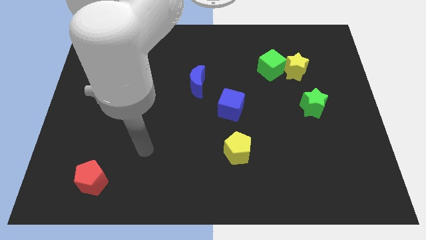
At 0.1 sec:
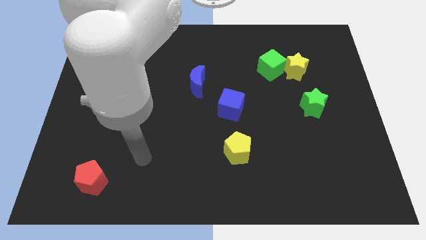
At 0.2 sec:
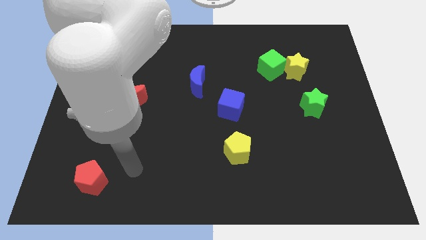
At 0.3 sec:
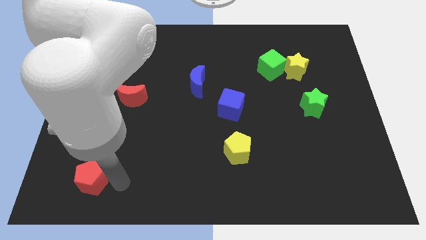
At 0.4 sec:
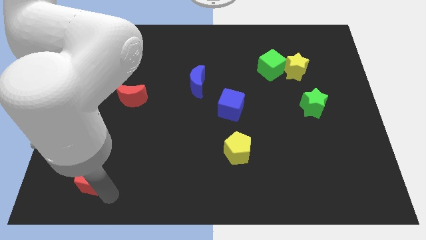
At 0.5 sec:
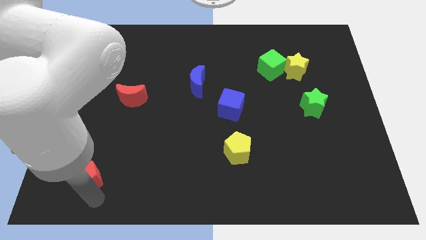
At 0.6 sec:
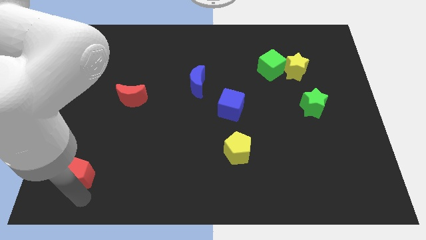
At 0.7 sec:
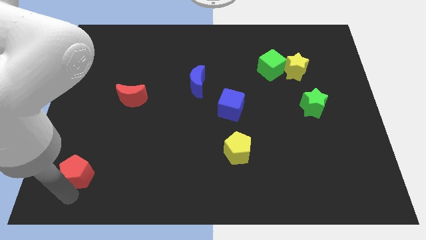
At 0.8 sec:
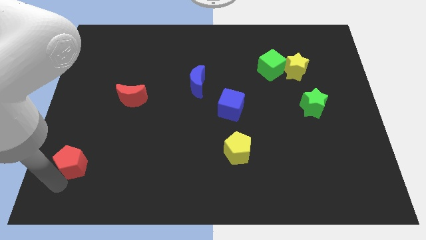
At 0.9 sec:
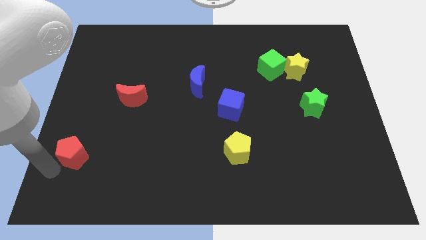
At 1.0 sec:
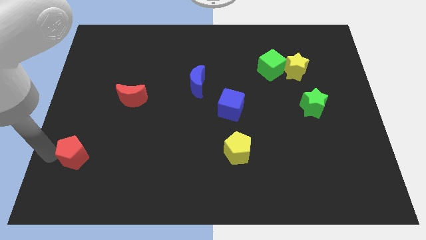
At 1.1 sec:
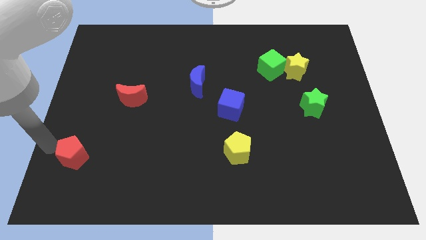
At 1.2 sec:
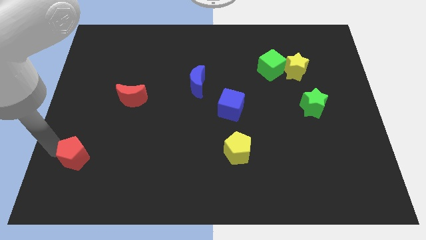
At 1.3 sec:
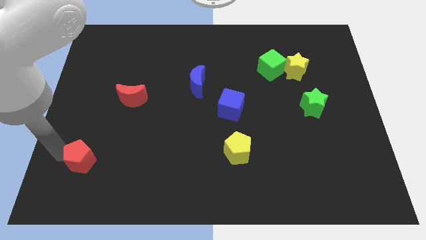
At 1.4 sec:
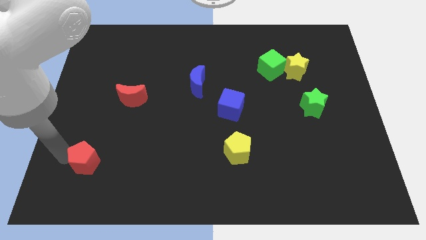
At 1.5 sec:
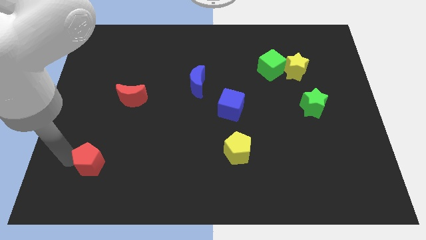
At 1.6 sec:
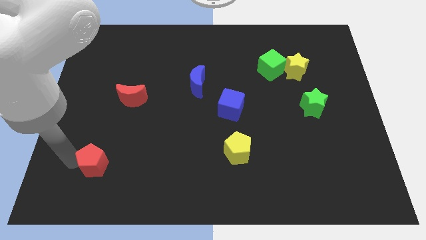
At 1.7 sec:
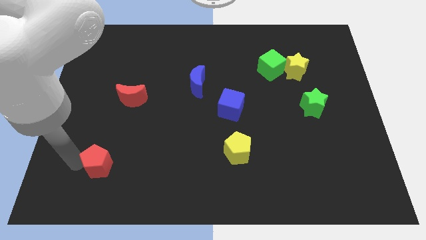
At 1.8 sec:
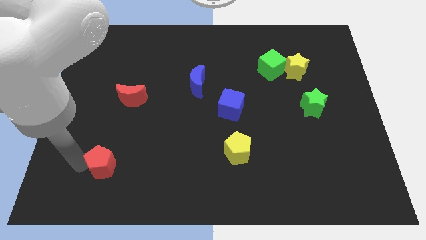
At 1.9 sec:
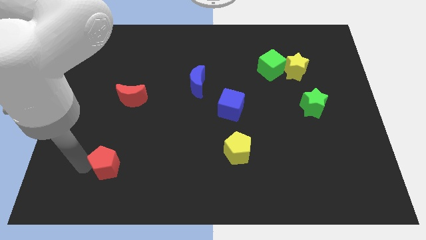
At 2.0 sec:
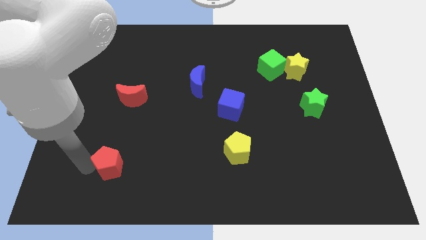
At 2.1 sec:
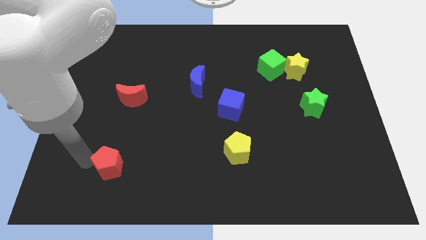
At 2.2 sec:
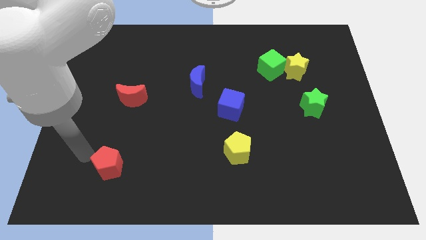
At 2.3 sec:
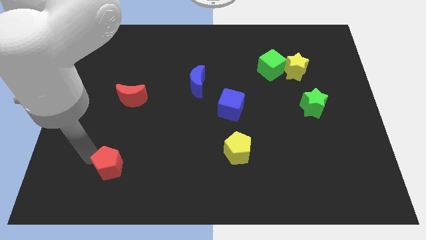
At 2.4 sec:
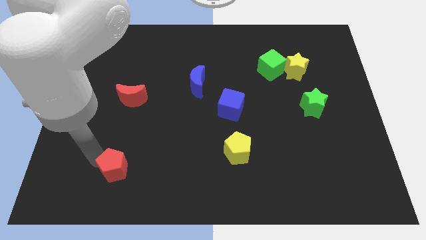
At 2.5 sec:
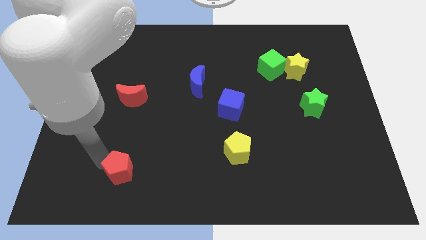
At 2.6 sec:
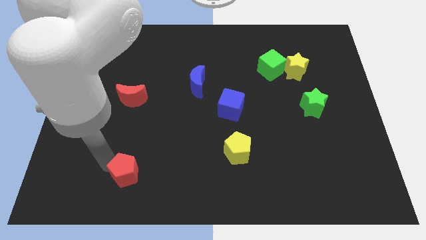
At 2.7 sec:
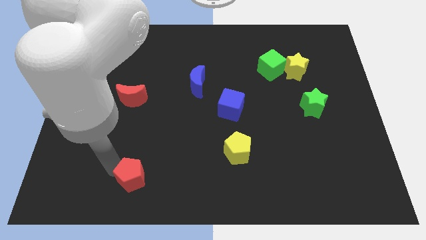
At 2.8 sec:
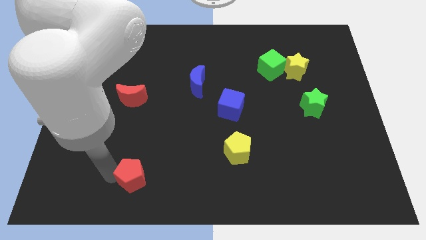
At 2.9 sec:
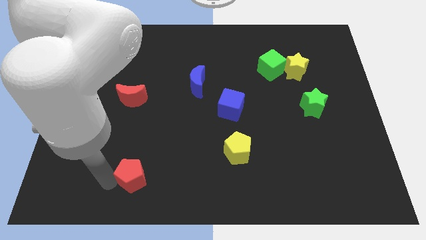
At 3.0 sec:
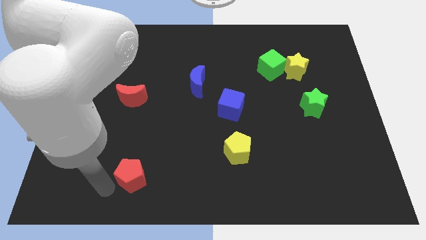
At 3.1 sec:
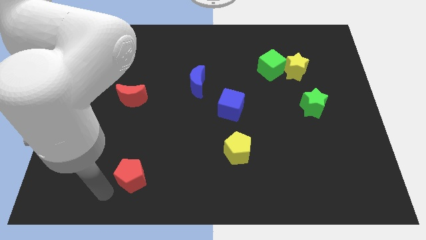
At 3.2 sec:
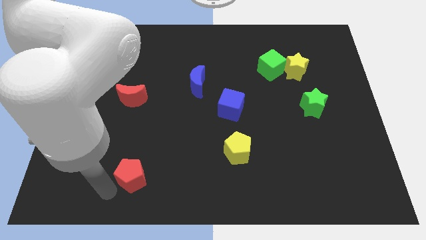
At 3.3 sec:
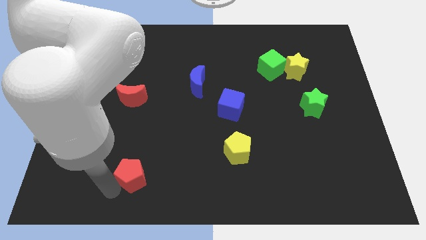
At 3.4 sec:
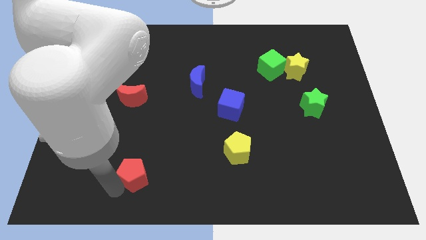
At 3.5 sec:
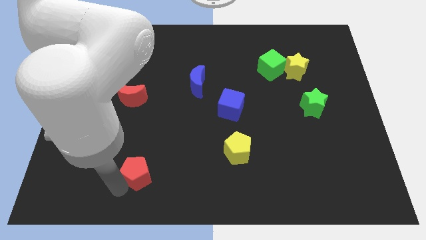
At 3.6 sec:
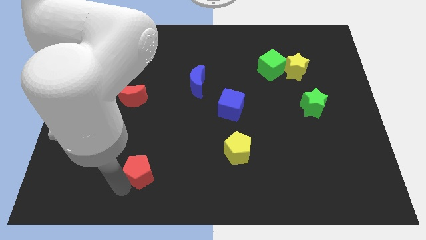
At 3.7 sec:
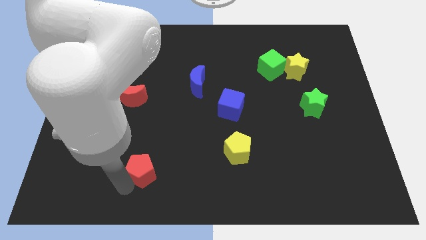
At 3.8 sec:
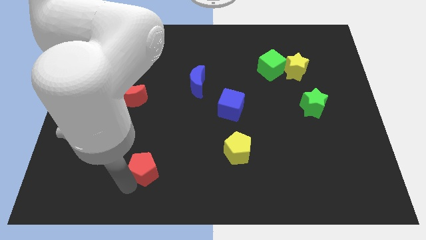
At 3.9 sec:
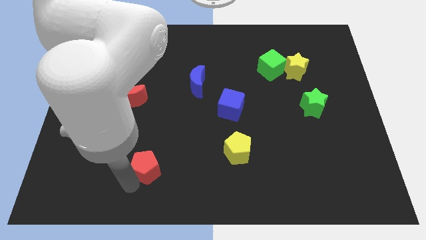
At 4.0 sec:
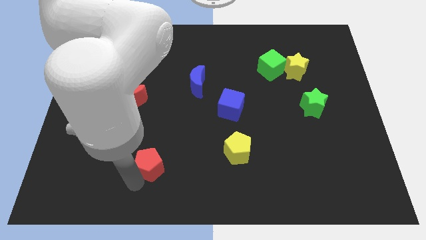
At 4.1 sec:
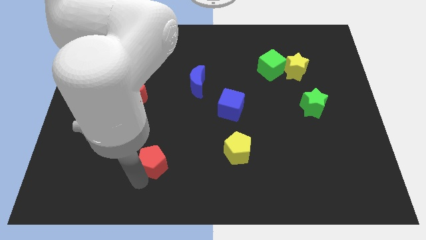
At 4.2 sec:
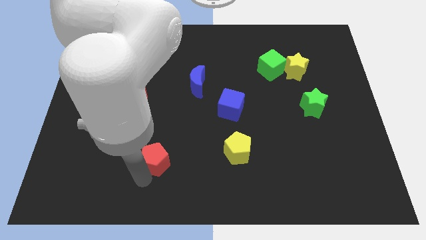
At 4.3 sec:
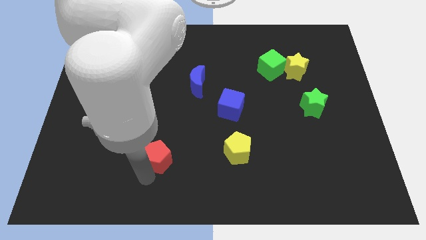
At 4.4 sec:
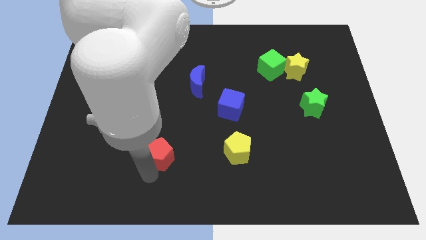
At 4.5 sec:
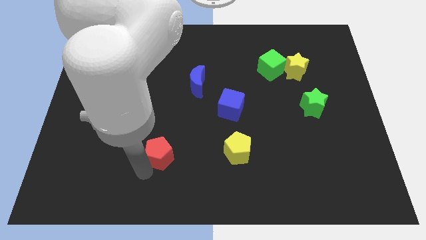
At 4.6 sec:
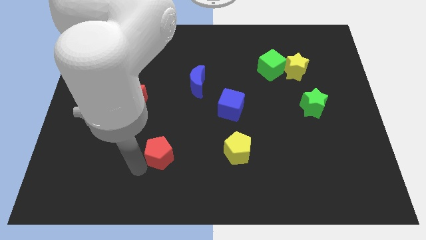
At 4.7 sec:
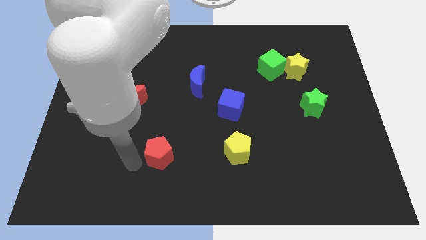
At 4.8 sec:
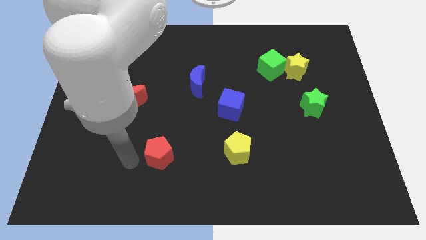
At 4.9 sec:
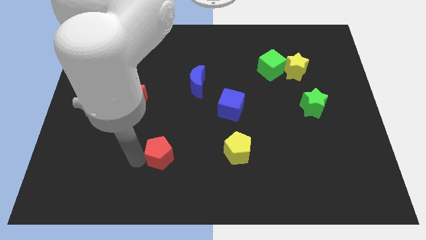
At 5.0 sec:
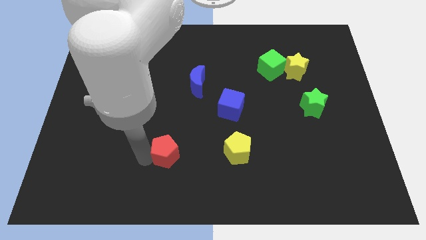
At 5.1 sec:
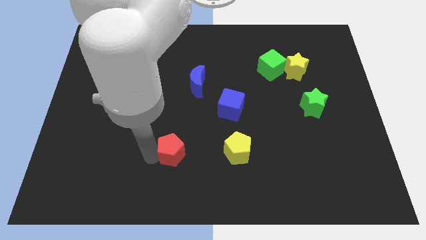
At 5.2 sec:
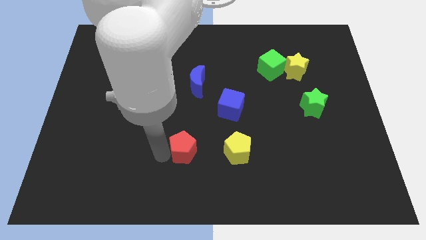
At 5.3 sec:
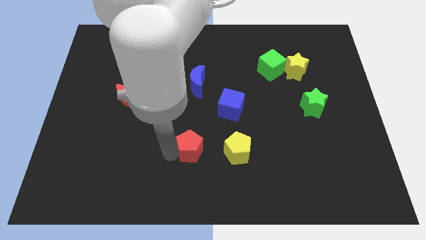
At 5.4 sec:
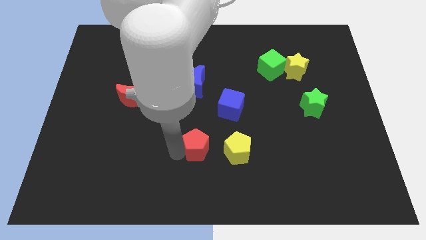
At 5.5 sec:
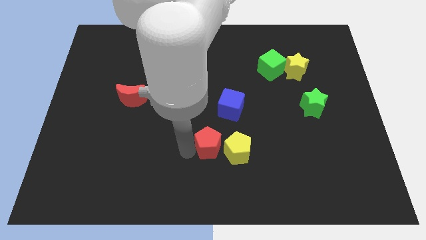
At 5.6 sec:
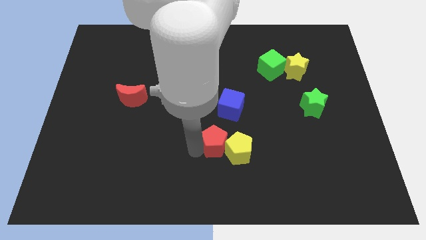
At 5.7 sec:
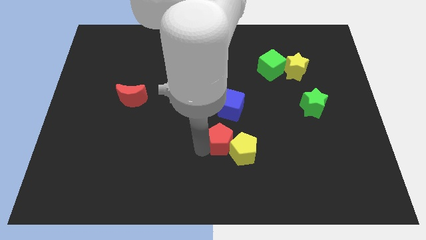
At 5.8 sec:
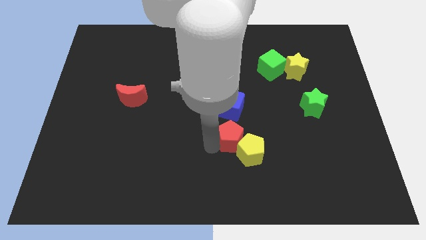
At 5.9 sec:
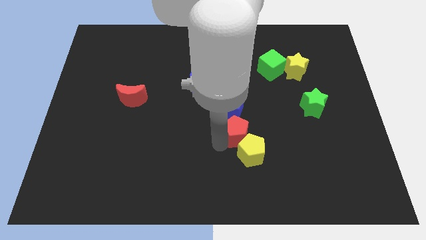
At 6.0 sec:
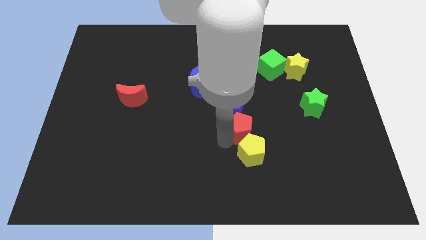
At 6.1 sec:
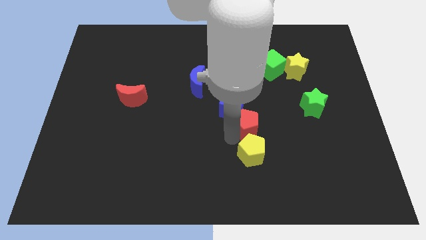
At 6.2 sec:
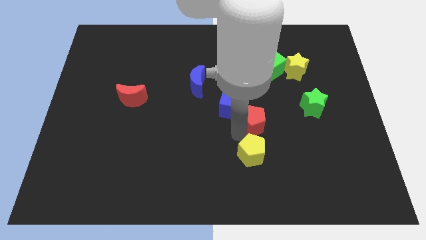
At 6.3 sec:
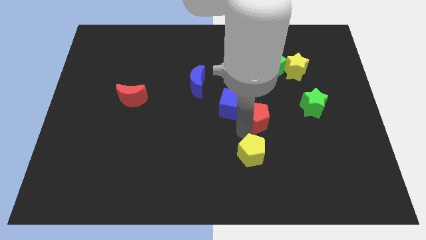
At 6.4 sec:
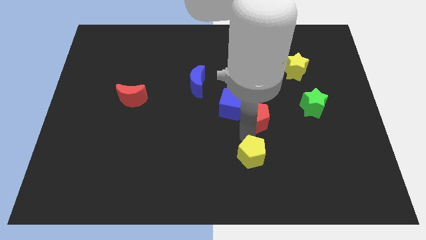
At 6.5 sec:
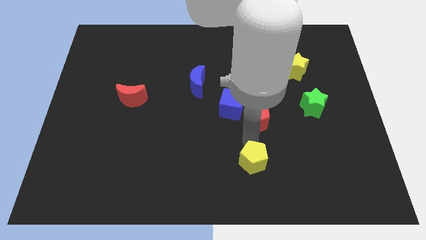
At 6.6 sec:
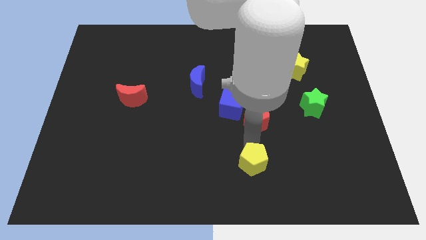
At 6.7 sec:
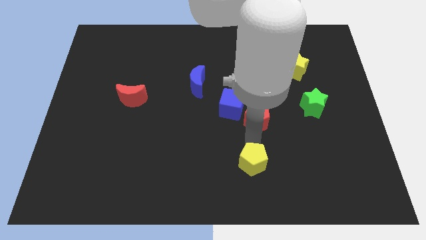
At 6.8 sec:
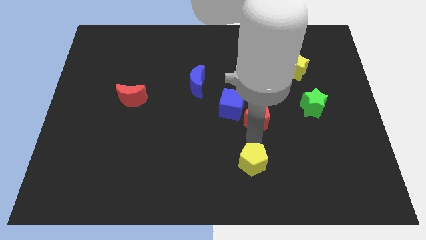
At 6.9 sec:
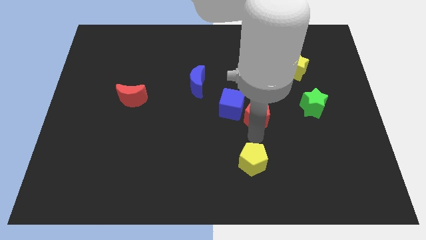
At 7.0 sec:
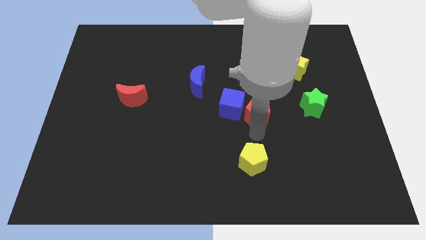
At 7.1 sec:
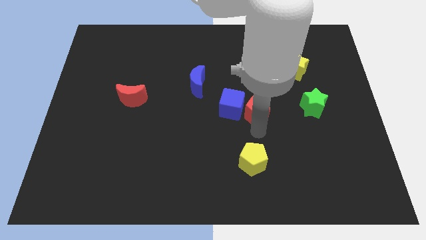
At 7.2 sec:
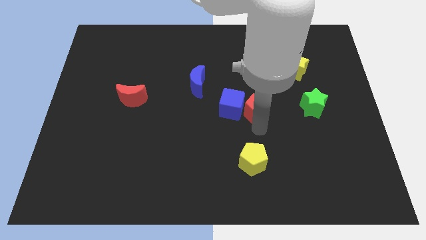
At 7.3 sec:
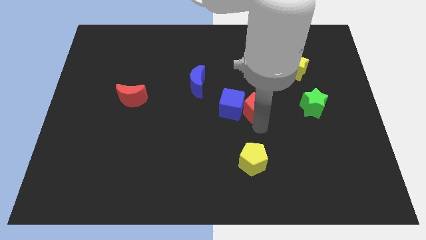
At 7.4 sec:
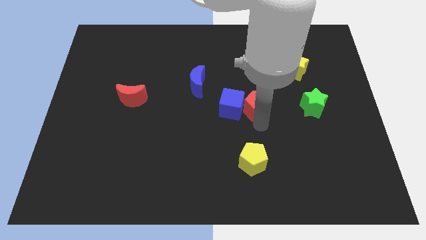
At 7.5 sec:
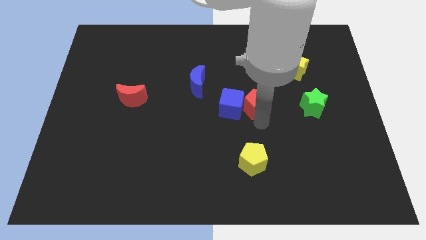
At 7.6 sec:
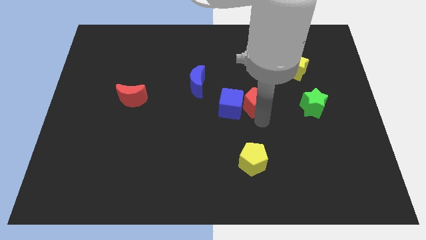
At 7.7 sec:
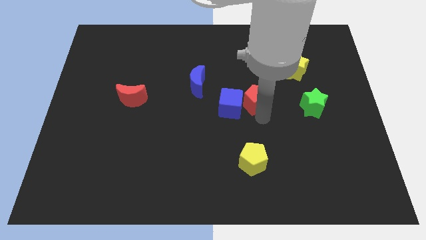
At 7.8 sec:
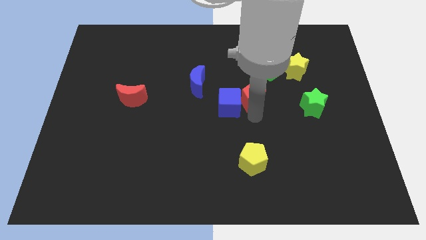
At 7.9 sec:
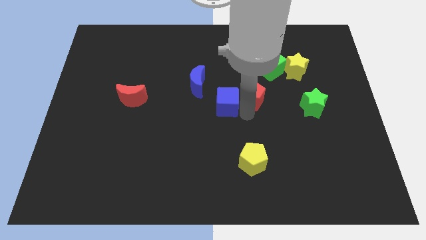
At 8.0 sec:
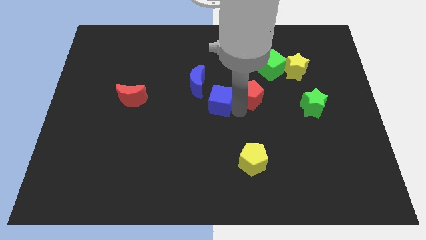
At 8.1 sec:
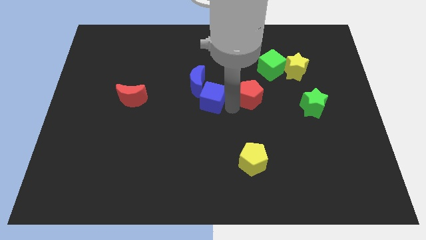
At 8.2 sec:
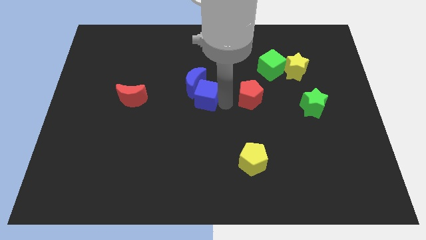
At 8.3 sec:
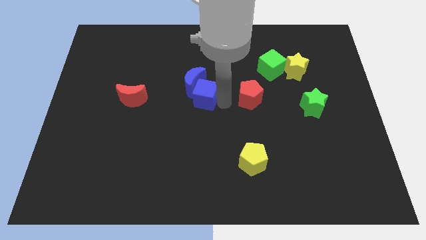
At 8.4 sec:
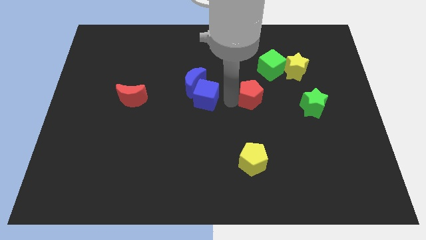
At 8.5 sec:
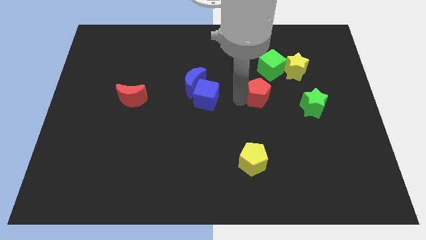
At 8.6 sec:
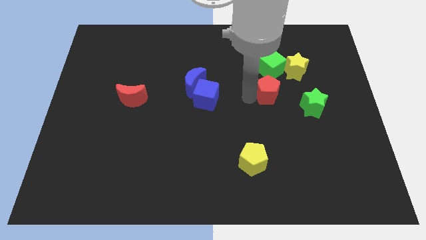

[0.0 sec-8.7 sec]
slide the red pentagon to the top left of the green star
